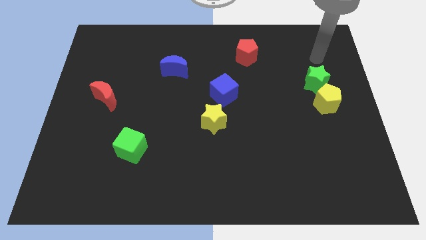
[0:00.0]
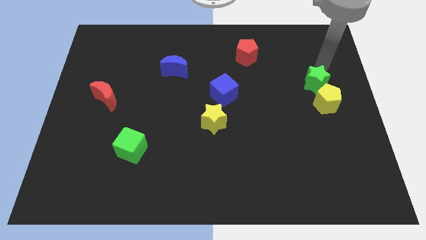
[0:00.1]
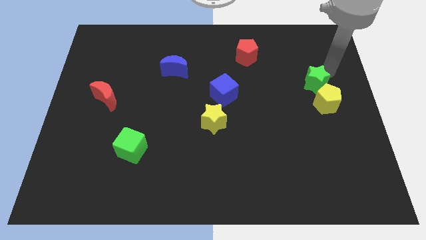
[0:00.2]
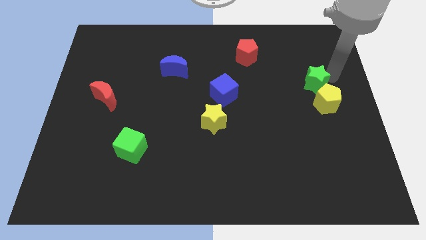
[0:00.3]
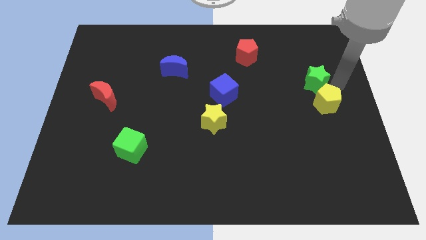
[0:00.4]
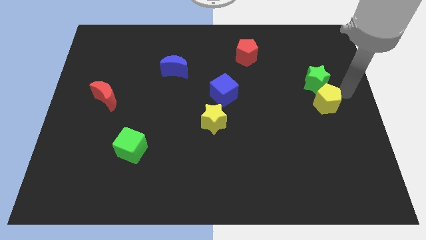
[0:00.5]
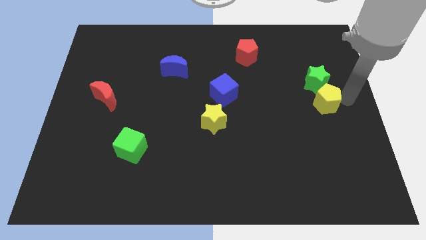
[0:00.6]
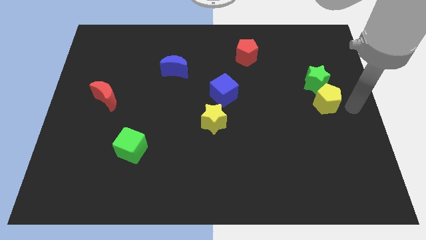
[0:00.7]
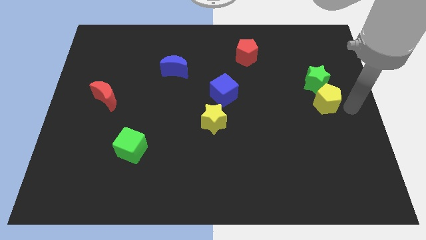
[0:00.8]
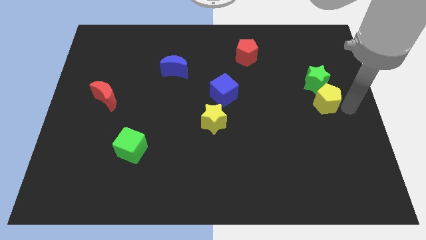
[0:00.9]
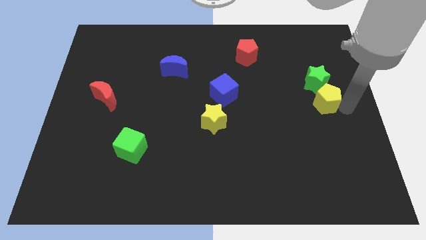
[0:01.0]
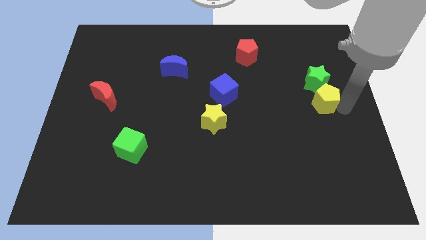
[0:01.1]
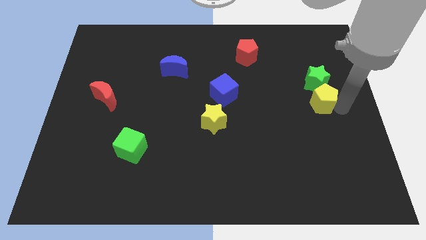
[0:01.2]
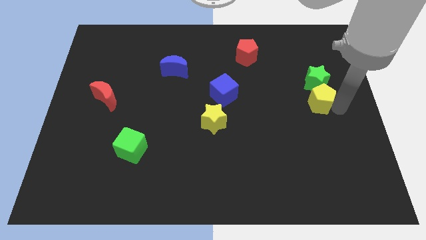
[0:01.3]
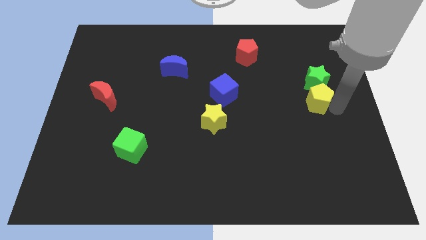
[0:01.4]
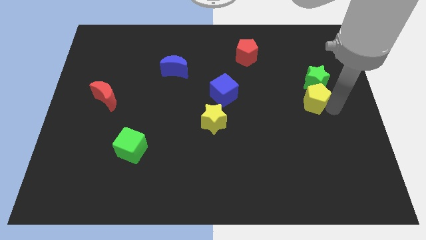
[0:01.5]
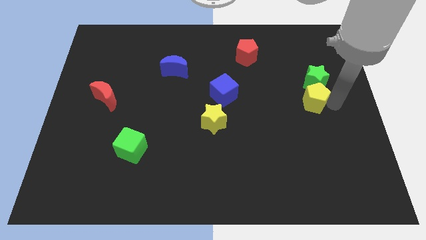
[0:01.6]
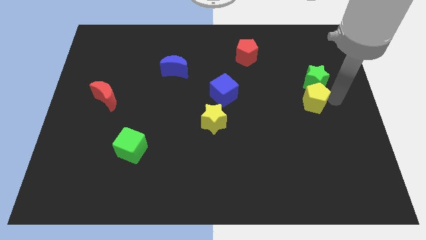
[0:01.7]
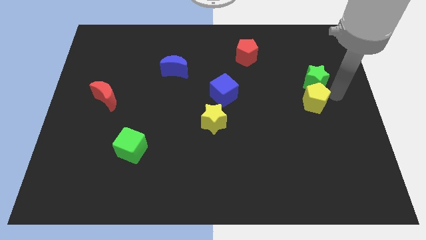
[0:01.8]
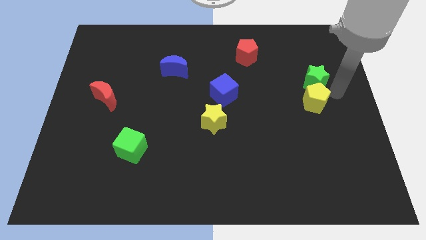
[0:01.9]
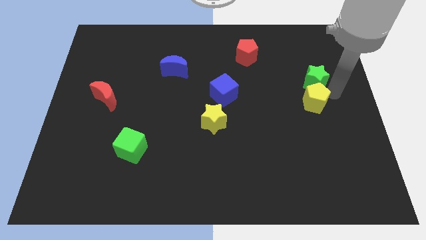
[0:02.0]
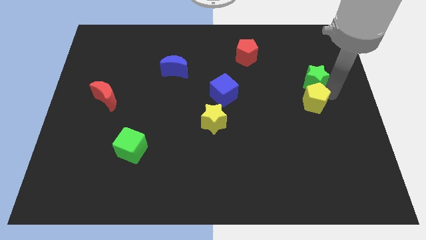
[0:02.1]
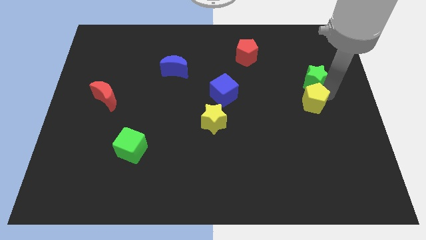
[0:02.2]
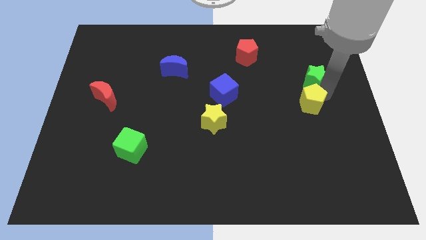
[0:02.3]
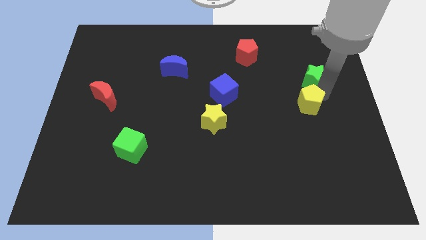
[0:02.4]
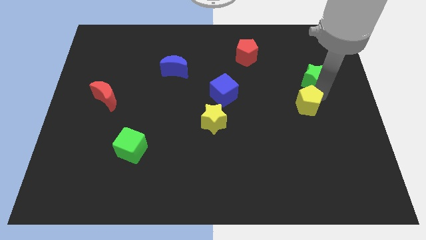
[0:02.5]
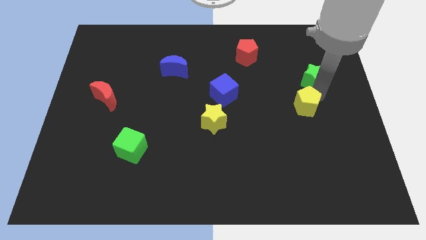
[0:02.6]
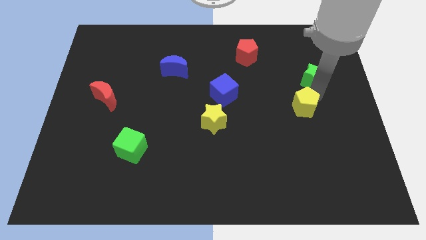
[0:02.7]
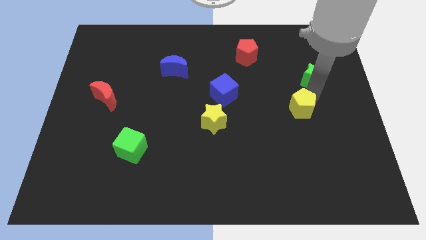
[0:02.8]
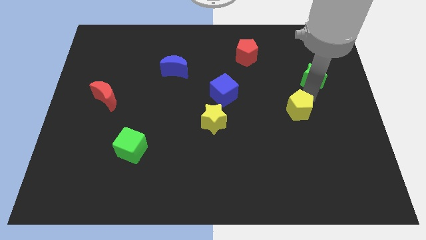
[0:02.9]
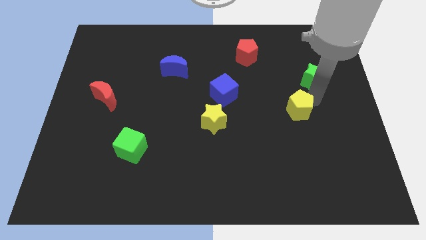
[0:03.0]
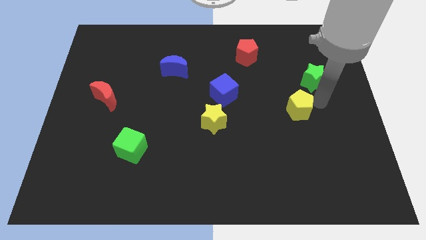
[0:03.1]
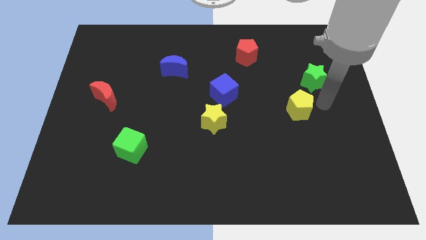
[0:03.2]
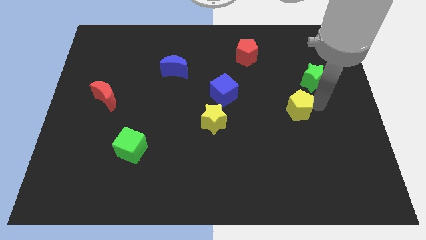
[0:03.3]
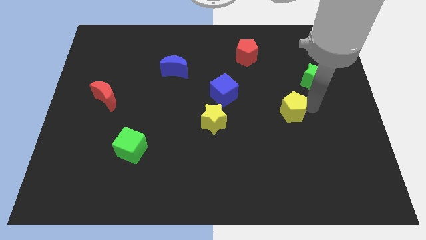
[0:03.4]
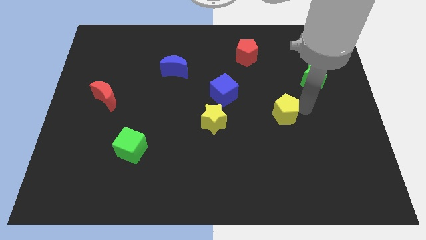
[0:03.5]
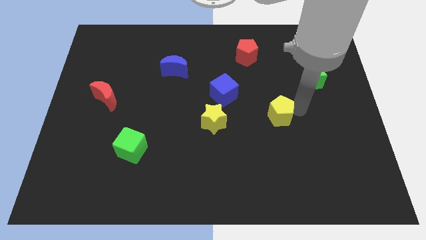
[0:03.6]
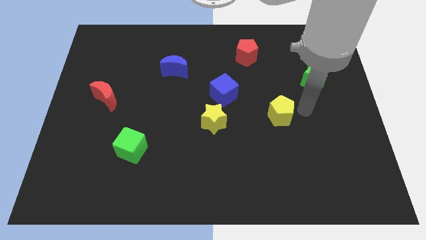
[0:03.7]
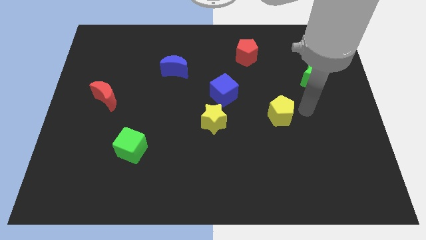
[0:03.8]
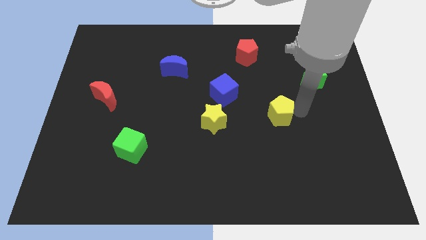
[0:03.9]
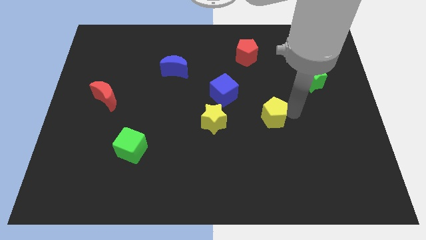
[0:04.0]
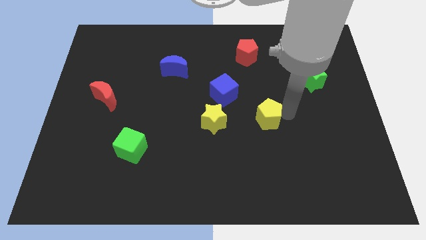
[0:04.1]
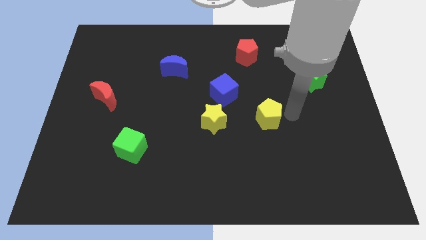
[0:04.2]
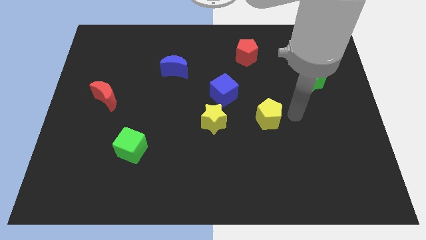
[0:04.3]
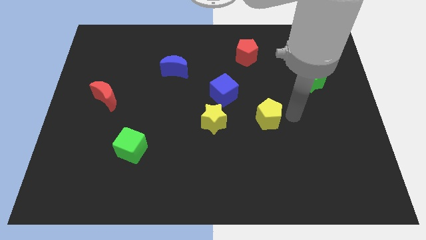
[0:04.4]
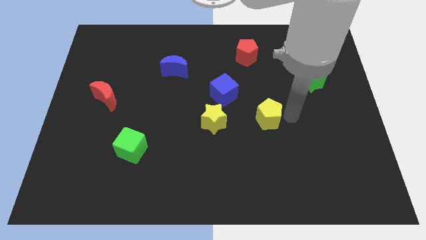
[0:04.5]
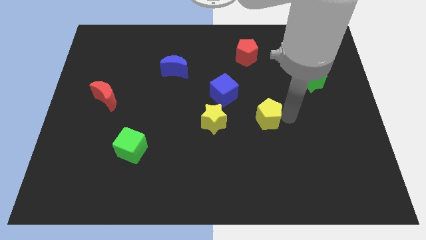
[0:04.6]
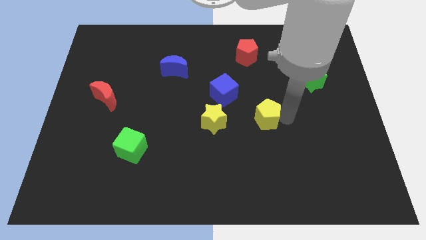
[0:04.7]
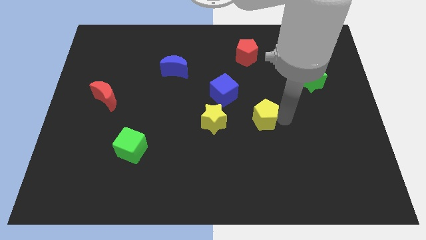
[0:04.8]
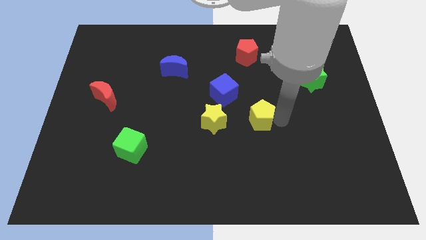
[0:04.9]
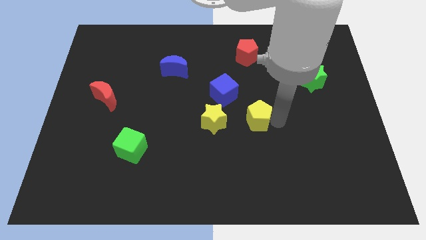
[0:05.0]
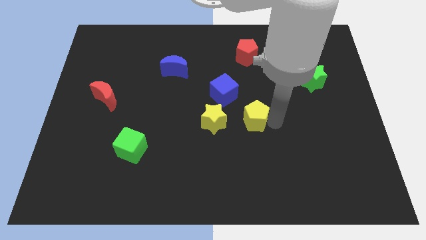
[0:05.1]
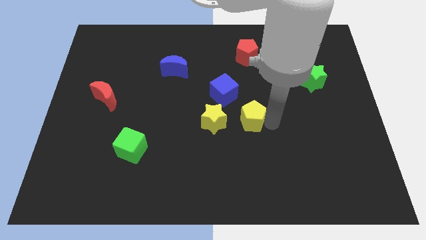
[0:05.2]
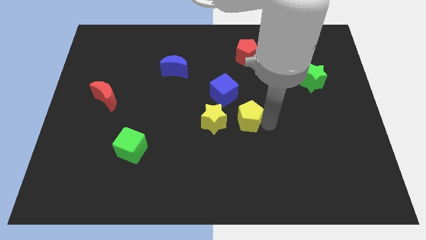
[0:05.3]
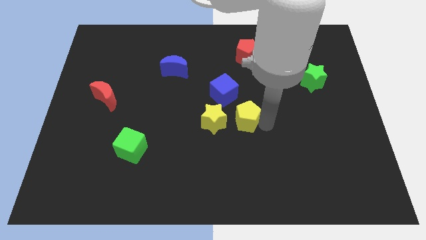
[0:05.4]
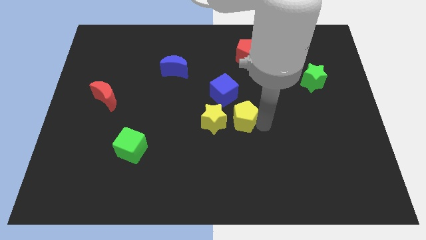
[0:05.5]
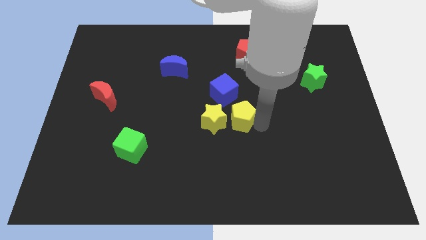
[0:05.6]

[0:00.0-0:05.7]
push the yellow pentagon towards the yellow star

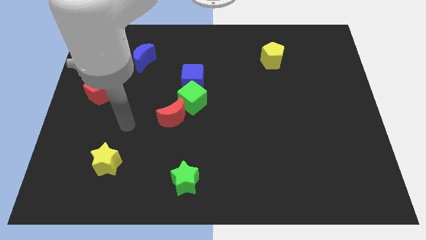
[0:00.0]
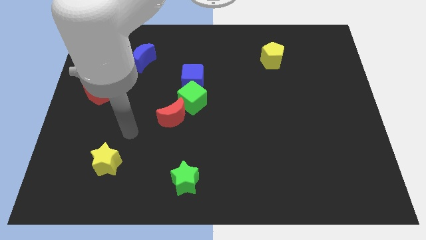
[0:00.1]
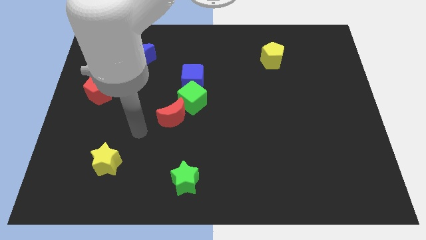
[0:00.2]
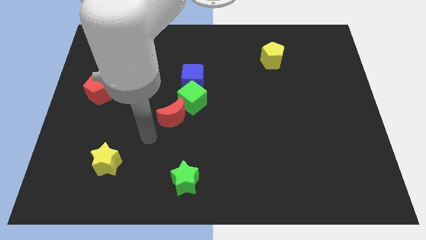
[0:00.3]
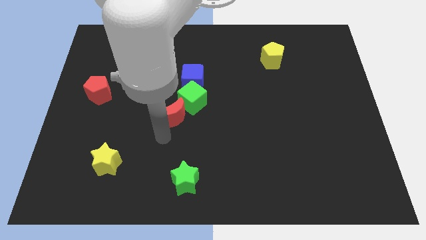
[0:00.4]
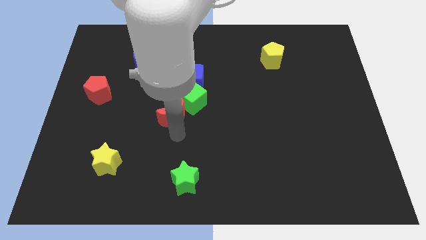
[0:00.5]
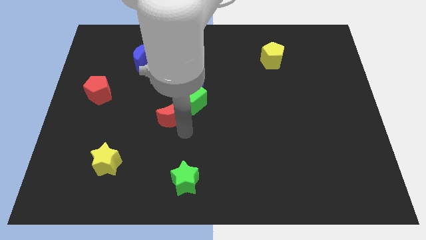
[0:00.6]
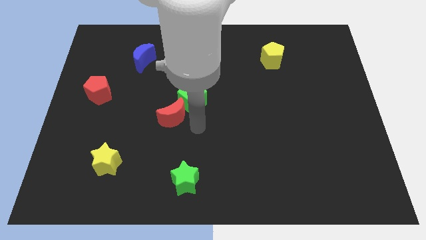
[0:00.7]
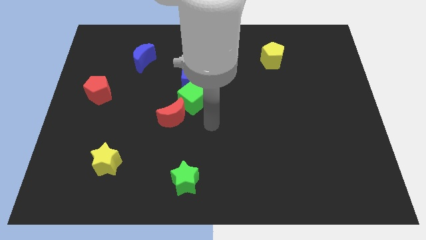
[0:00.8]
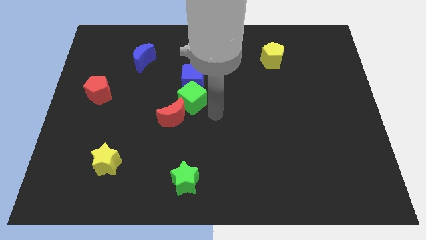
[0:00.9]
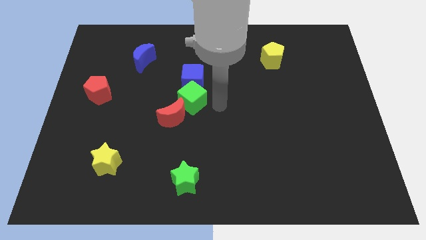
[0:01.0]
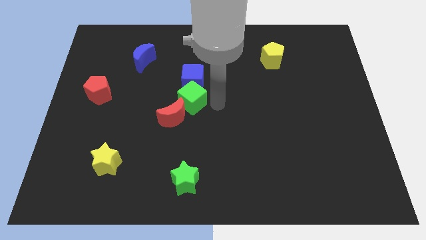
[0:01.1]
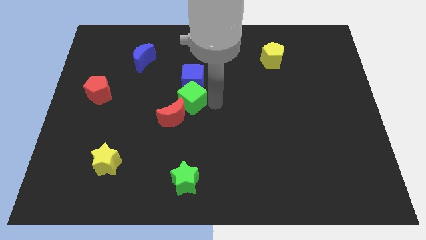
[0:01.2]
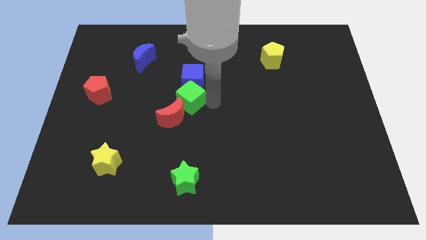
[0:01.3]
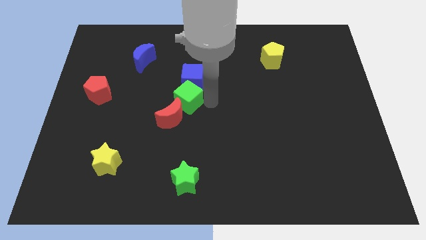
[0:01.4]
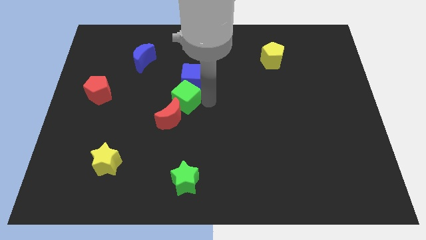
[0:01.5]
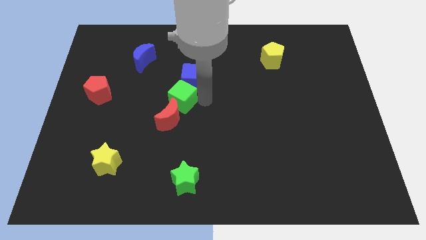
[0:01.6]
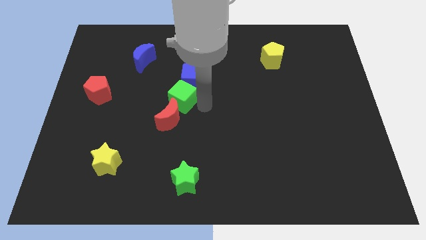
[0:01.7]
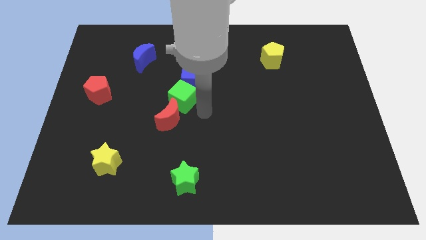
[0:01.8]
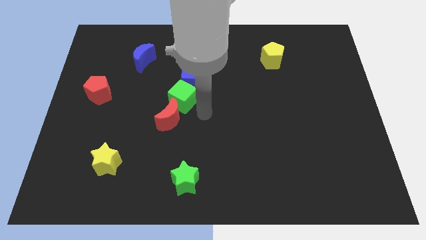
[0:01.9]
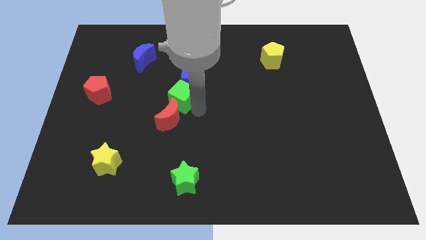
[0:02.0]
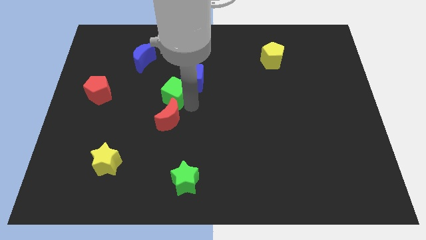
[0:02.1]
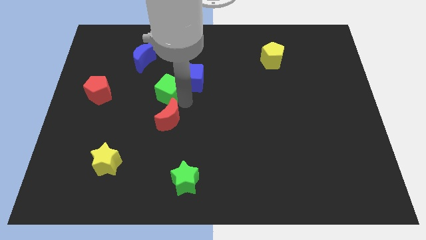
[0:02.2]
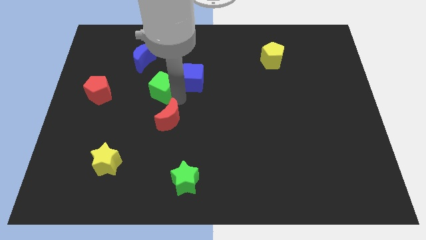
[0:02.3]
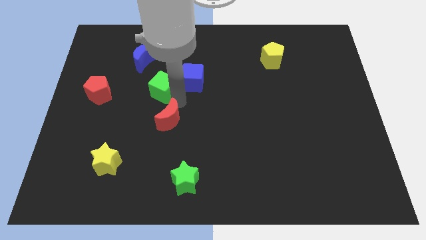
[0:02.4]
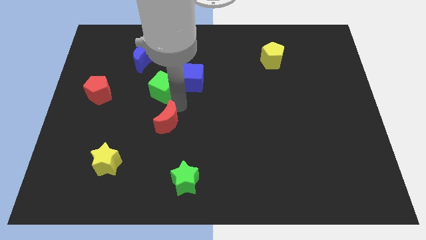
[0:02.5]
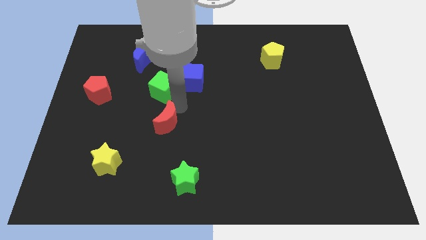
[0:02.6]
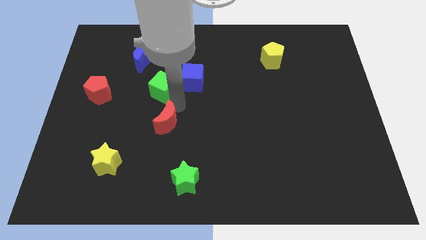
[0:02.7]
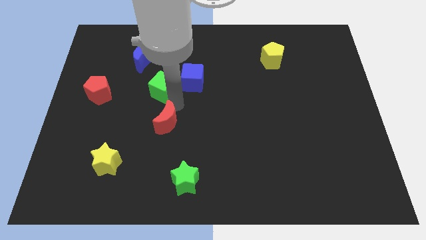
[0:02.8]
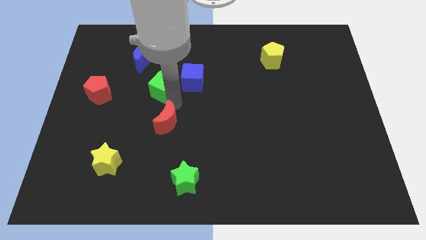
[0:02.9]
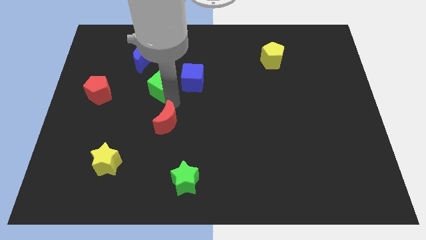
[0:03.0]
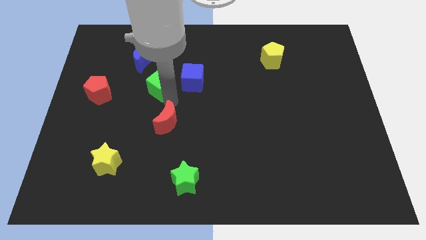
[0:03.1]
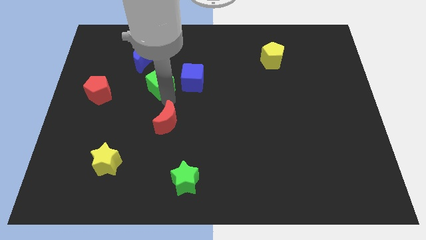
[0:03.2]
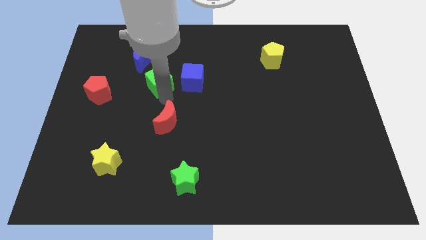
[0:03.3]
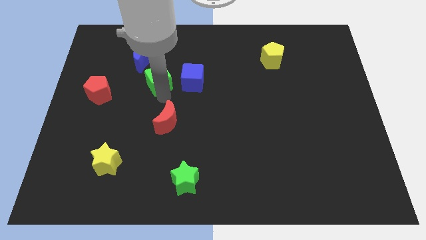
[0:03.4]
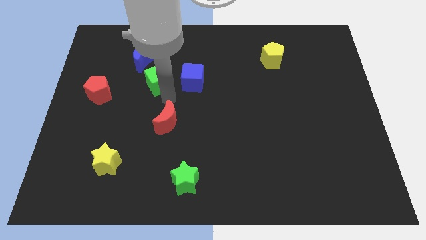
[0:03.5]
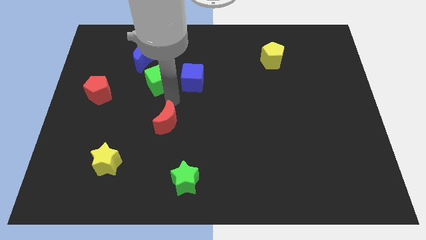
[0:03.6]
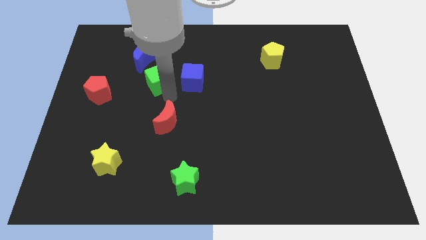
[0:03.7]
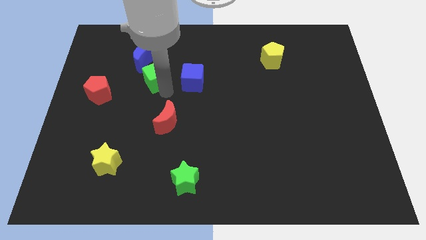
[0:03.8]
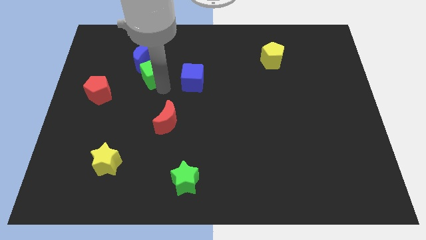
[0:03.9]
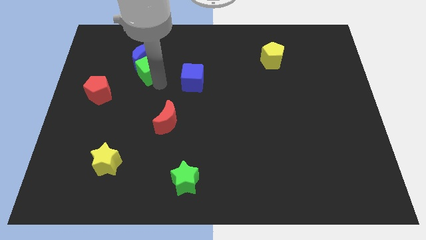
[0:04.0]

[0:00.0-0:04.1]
slide the green cube to the blue moon
